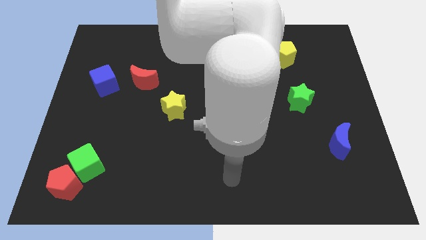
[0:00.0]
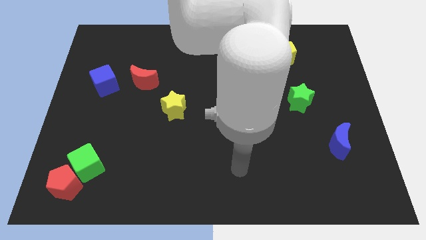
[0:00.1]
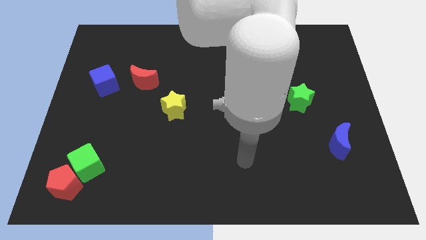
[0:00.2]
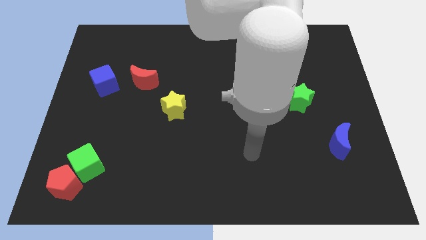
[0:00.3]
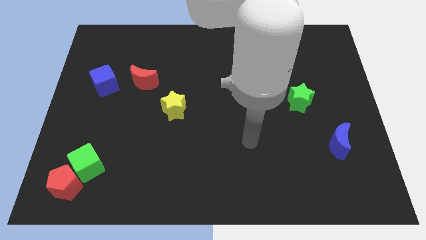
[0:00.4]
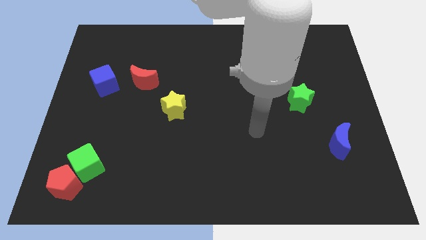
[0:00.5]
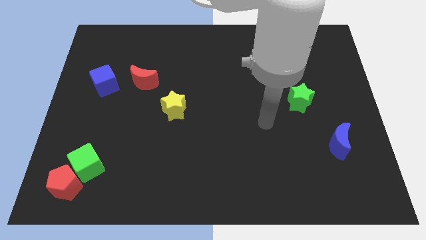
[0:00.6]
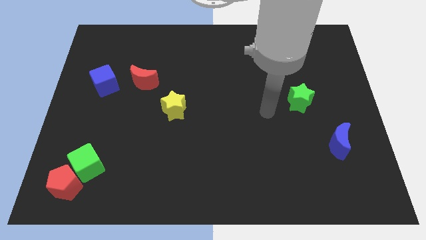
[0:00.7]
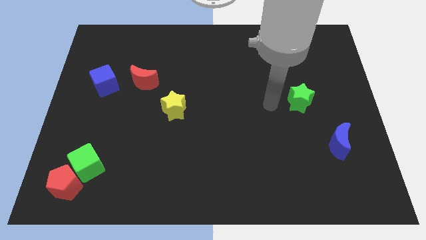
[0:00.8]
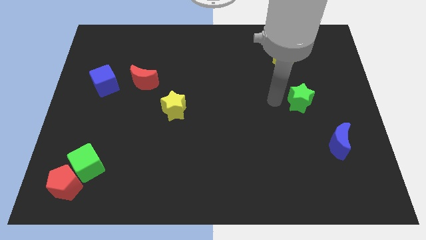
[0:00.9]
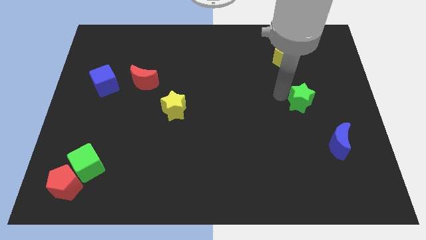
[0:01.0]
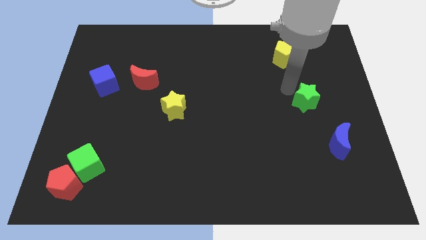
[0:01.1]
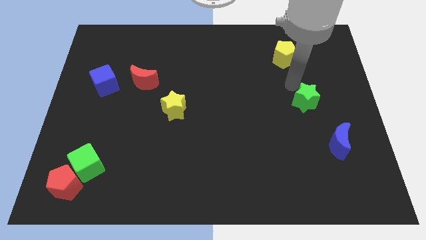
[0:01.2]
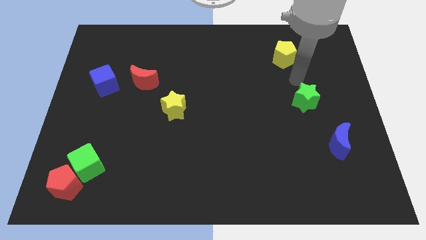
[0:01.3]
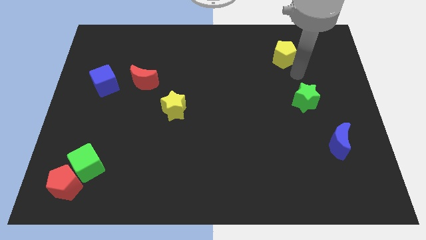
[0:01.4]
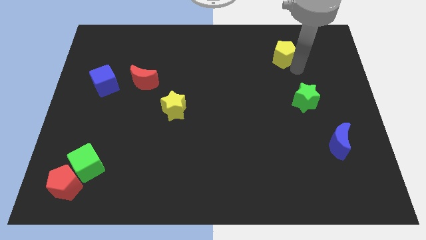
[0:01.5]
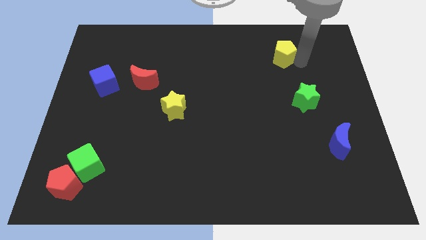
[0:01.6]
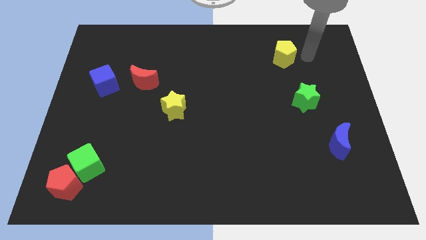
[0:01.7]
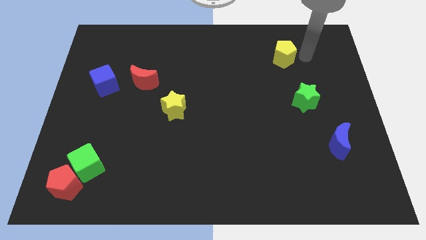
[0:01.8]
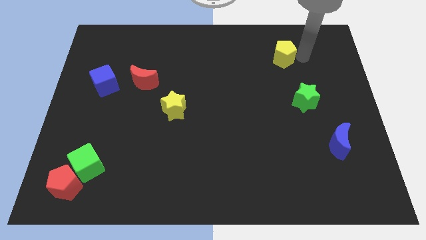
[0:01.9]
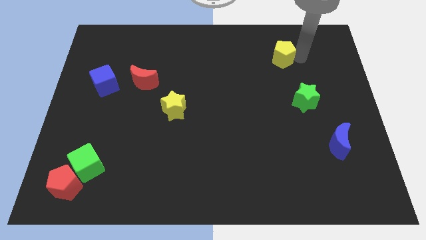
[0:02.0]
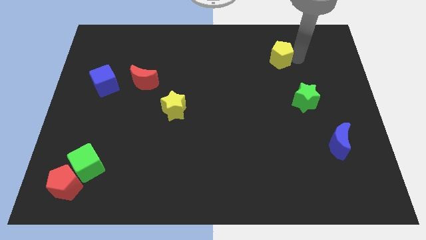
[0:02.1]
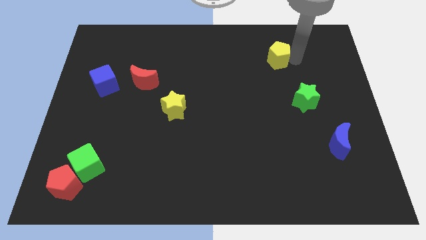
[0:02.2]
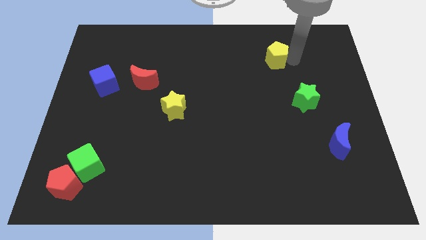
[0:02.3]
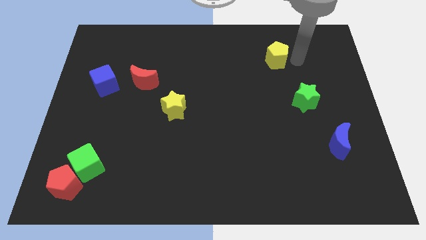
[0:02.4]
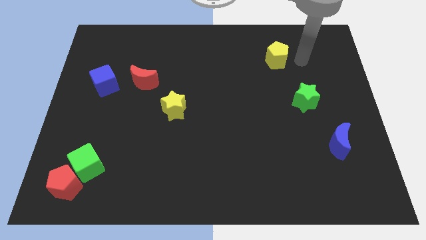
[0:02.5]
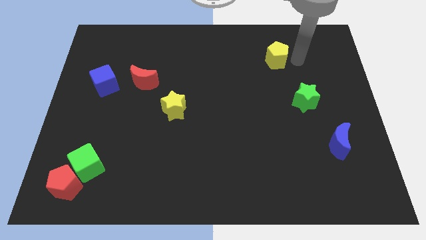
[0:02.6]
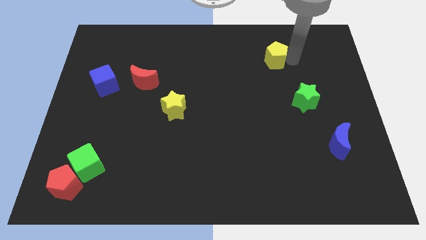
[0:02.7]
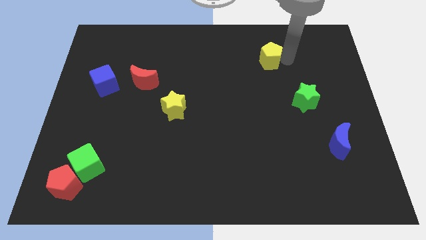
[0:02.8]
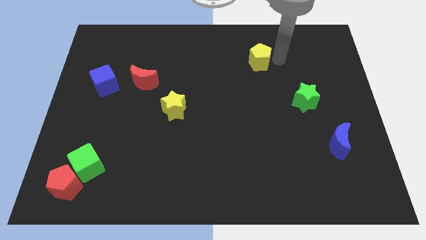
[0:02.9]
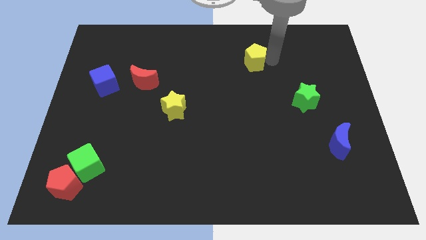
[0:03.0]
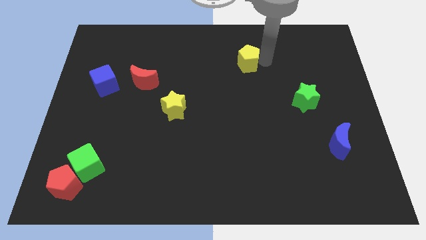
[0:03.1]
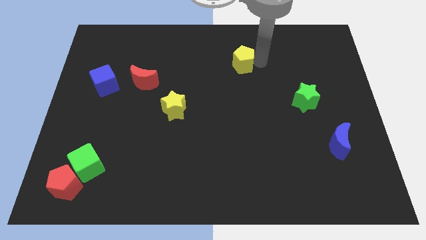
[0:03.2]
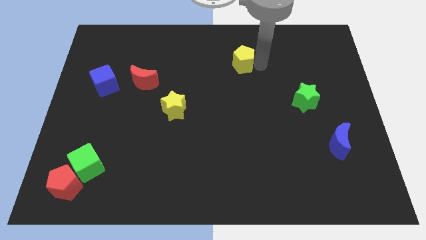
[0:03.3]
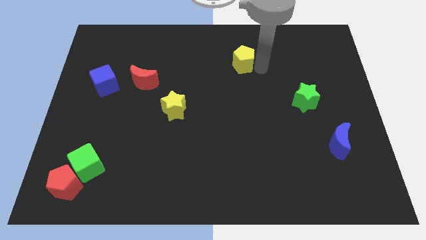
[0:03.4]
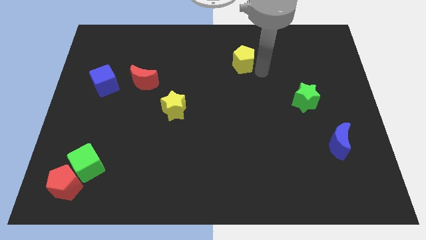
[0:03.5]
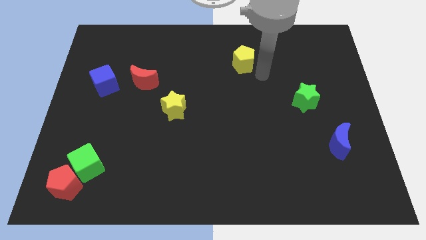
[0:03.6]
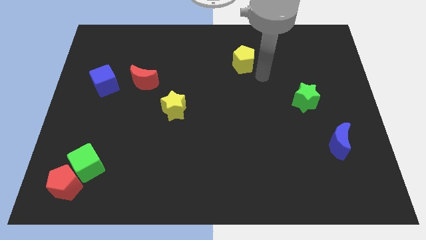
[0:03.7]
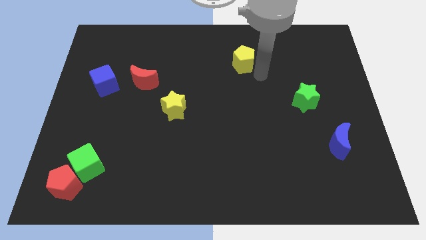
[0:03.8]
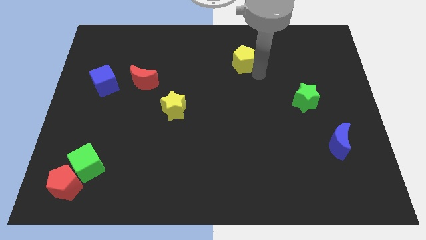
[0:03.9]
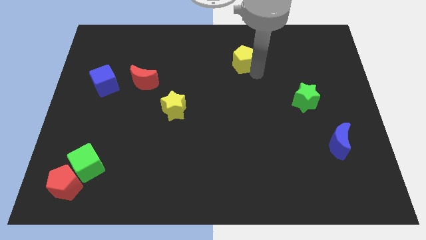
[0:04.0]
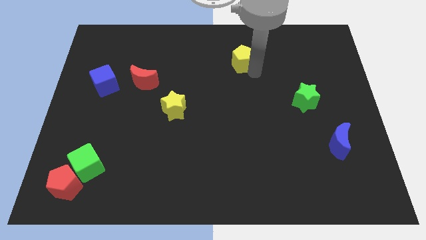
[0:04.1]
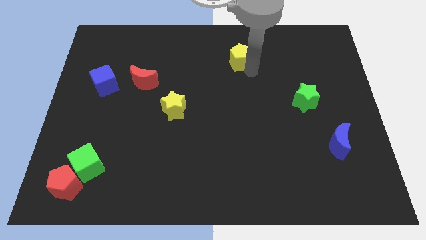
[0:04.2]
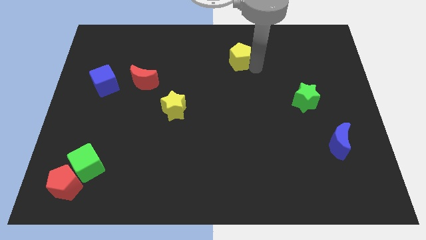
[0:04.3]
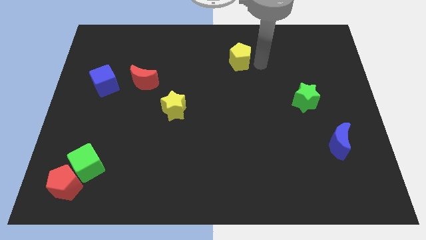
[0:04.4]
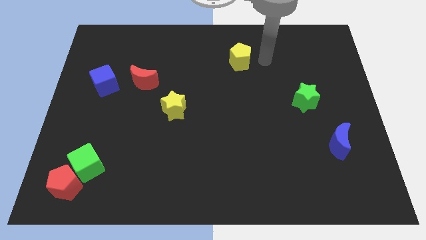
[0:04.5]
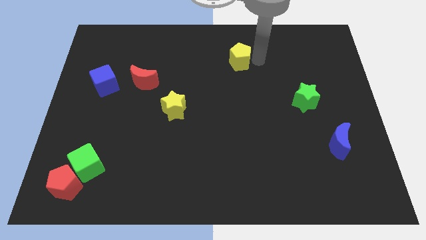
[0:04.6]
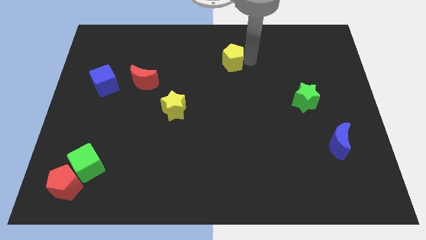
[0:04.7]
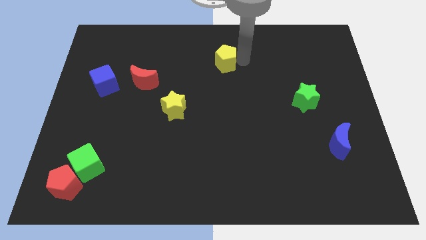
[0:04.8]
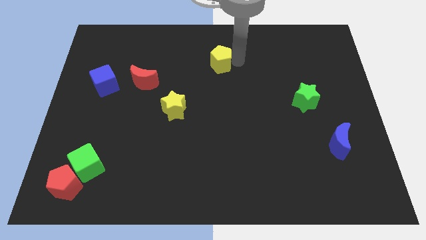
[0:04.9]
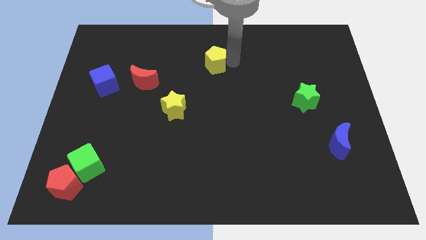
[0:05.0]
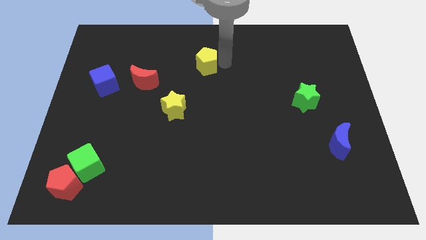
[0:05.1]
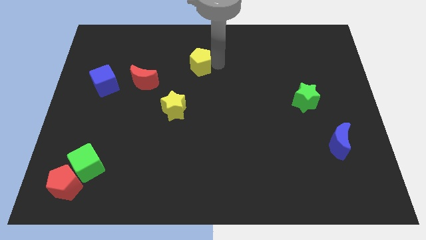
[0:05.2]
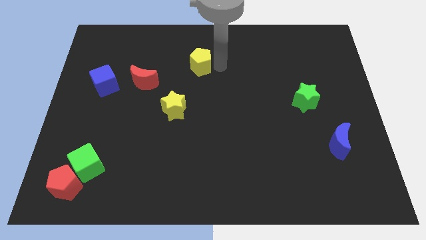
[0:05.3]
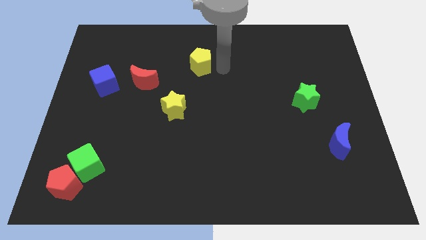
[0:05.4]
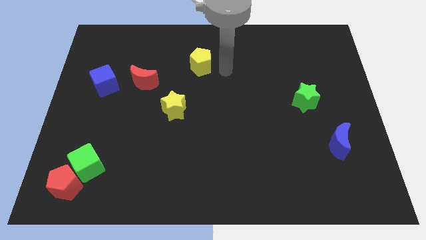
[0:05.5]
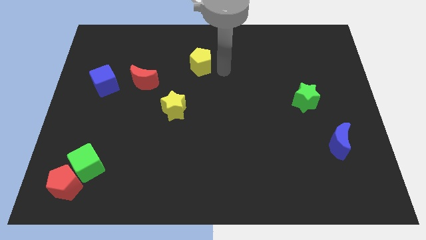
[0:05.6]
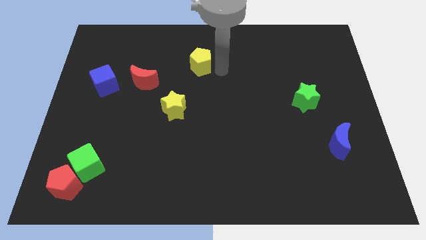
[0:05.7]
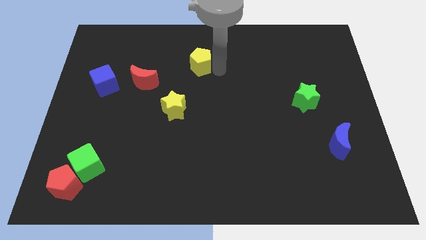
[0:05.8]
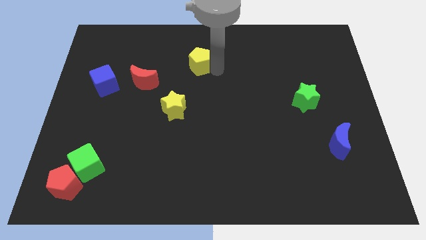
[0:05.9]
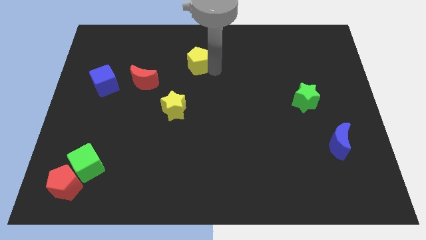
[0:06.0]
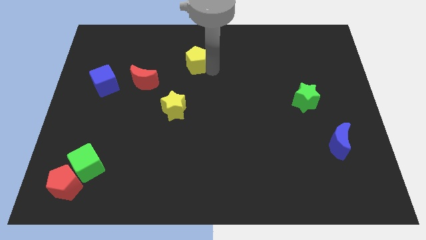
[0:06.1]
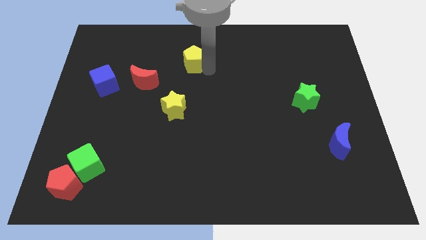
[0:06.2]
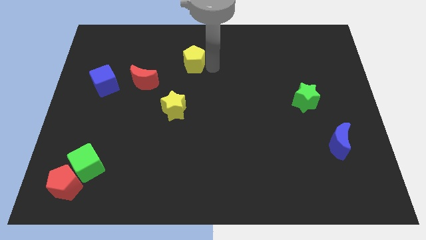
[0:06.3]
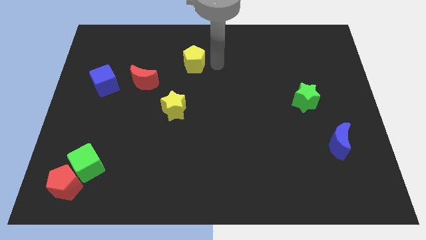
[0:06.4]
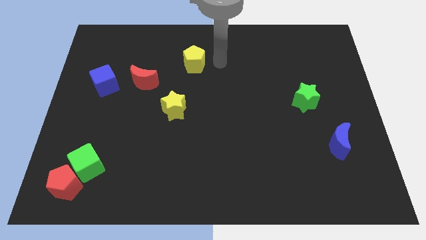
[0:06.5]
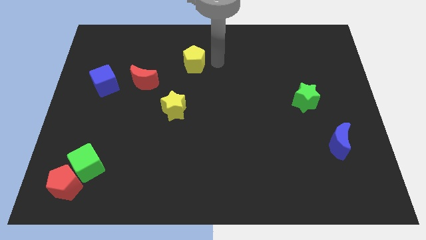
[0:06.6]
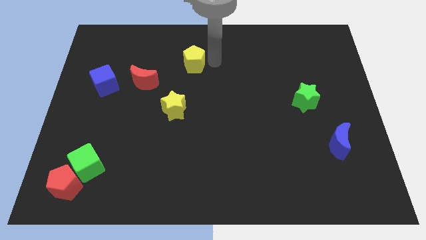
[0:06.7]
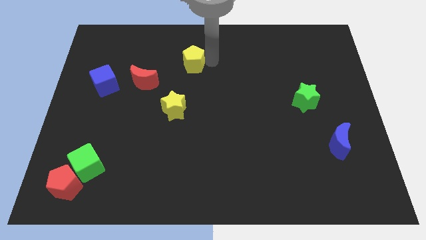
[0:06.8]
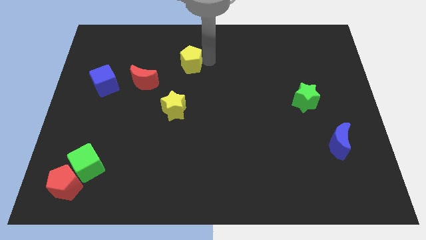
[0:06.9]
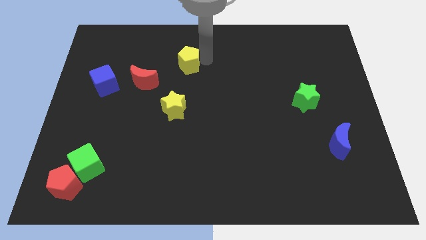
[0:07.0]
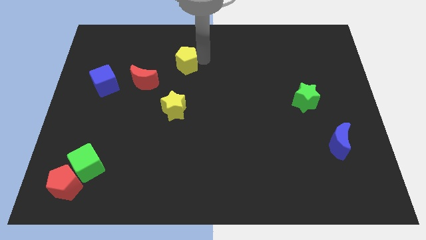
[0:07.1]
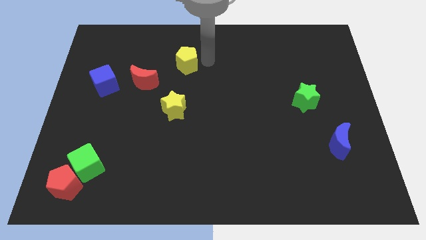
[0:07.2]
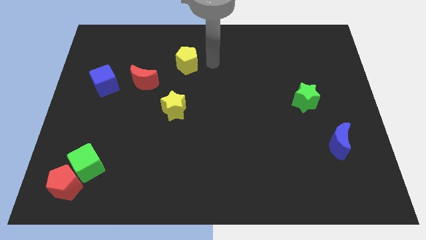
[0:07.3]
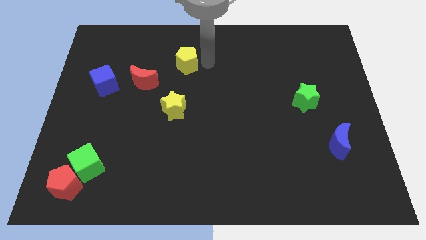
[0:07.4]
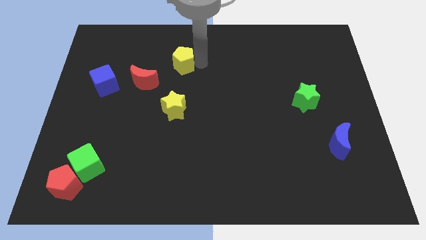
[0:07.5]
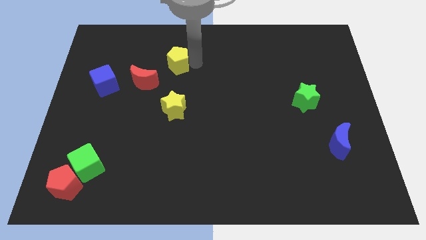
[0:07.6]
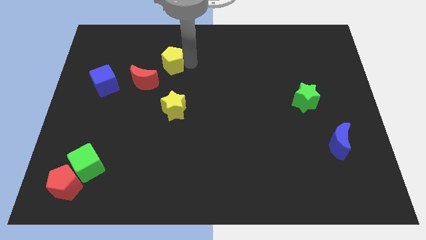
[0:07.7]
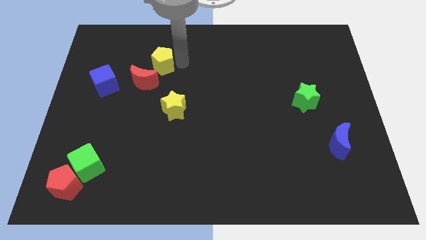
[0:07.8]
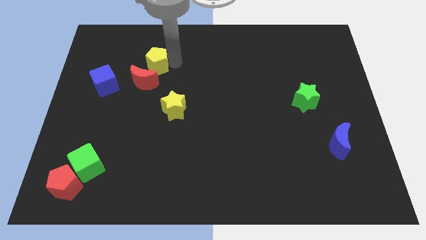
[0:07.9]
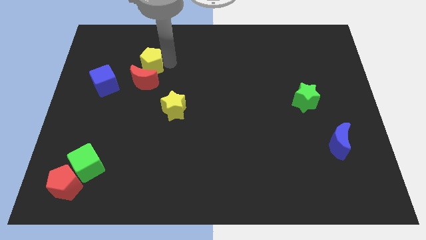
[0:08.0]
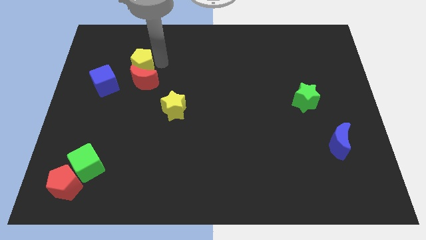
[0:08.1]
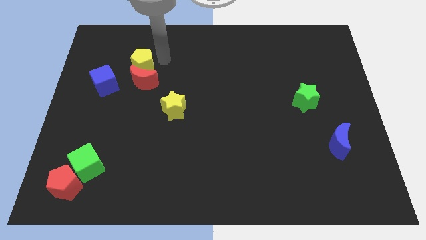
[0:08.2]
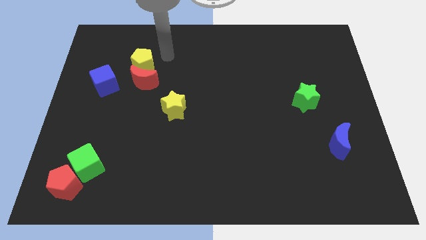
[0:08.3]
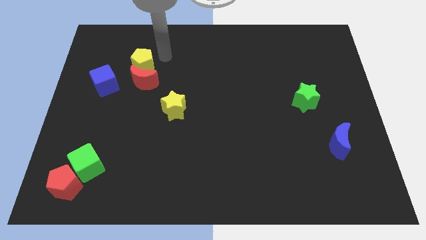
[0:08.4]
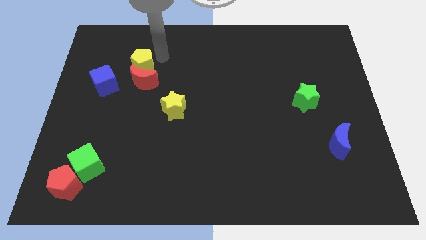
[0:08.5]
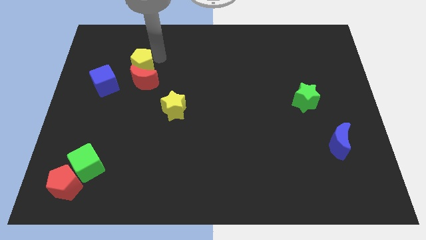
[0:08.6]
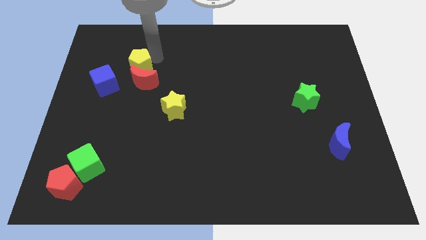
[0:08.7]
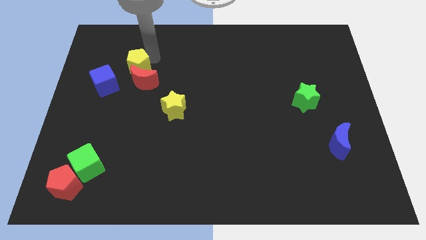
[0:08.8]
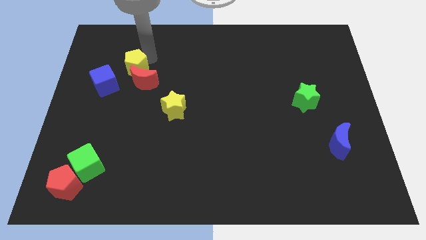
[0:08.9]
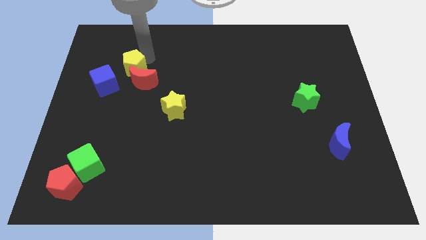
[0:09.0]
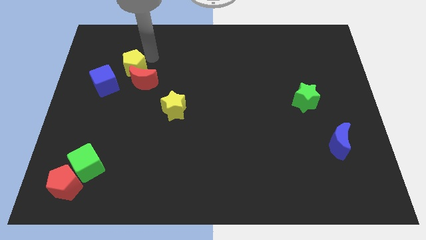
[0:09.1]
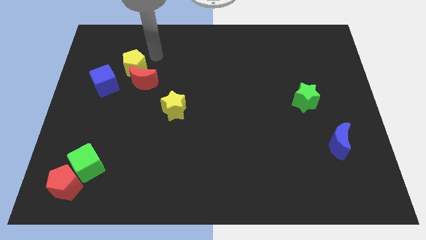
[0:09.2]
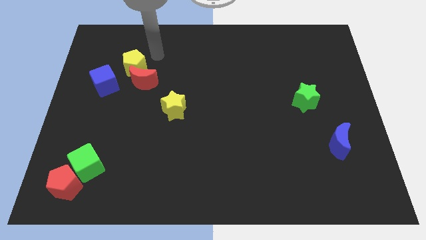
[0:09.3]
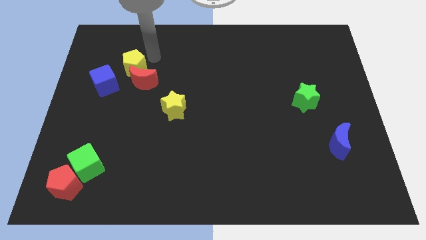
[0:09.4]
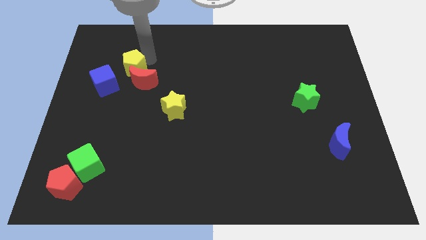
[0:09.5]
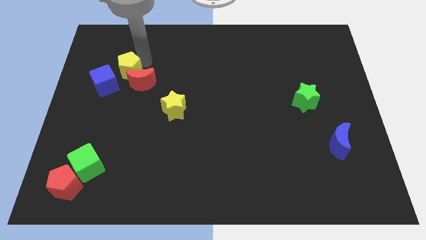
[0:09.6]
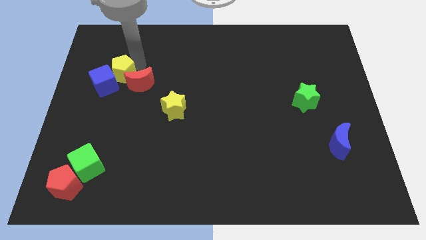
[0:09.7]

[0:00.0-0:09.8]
slide the yellow pentagon towards the blue cube
